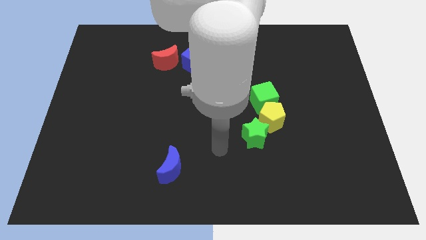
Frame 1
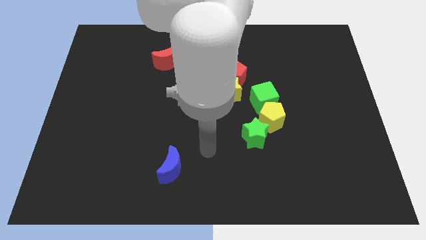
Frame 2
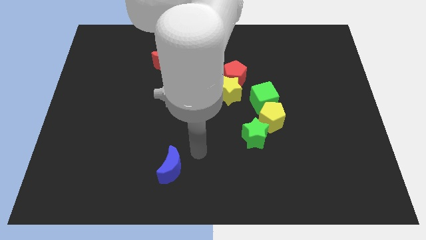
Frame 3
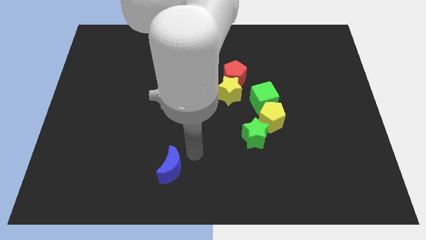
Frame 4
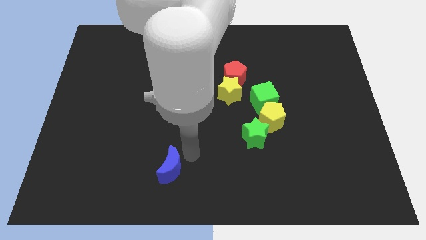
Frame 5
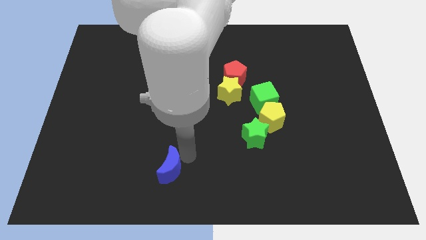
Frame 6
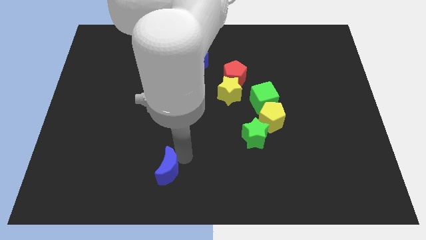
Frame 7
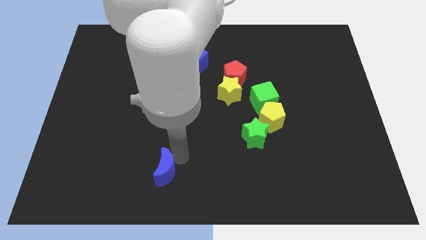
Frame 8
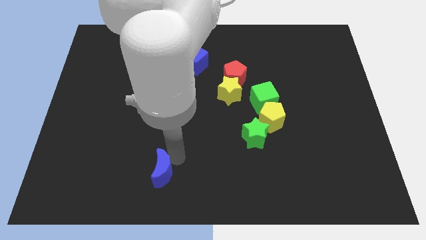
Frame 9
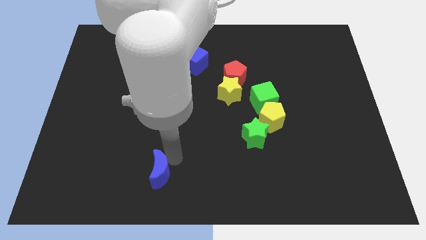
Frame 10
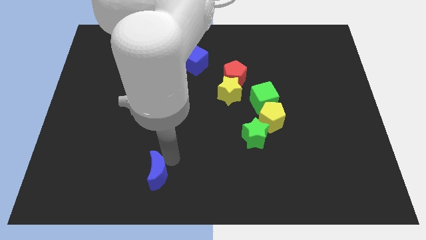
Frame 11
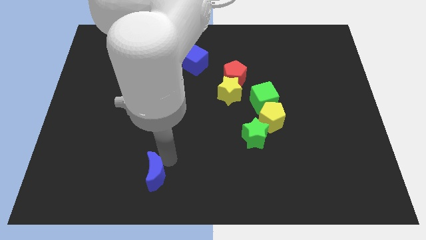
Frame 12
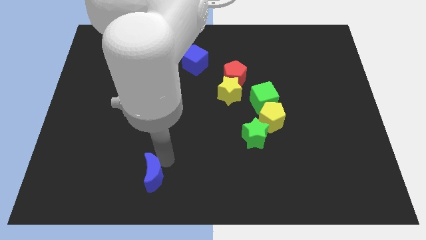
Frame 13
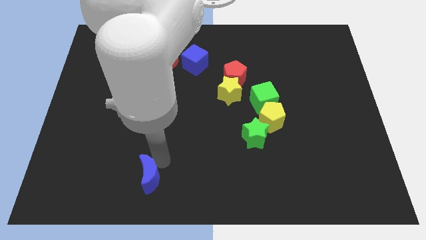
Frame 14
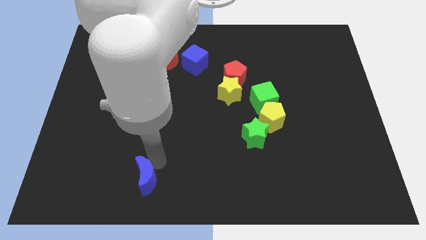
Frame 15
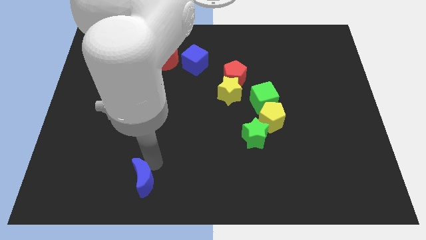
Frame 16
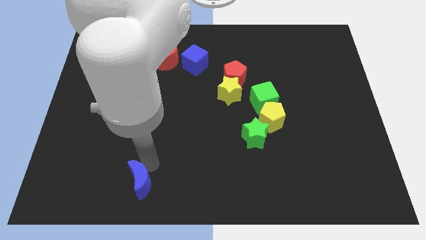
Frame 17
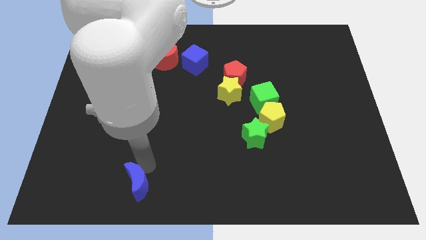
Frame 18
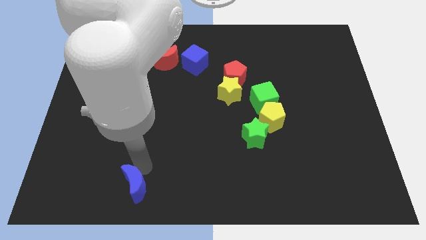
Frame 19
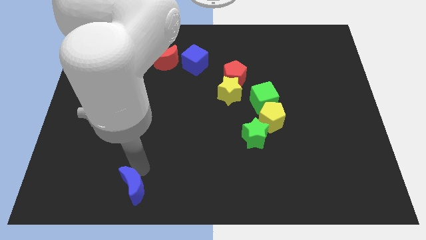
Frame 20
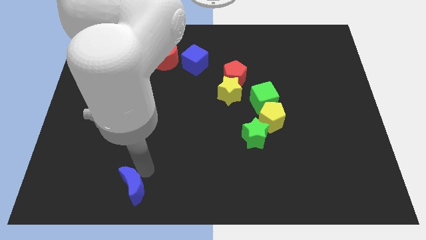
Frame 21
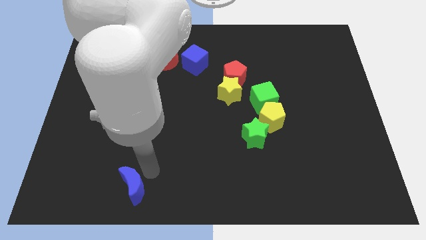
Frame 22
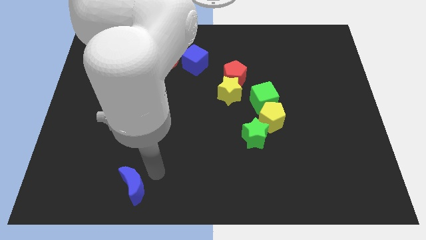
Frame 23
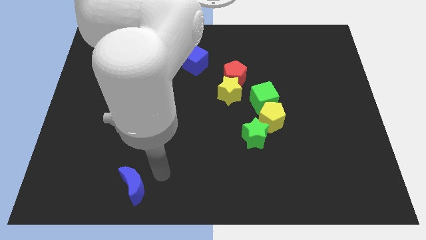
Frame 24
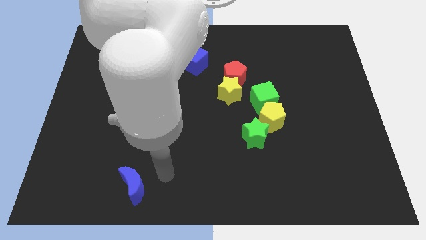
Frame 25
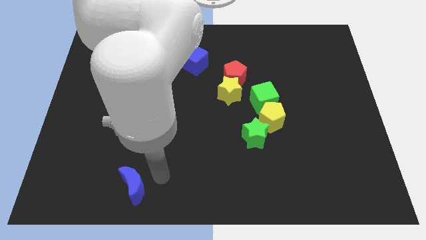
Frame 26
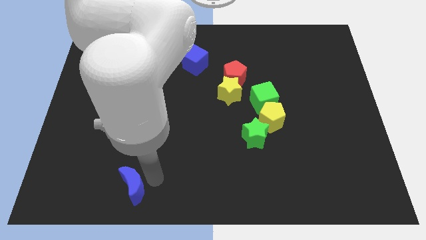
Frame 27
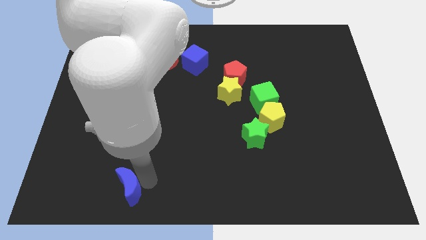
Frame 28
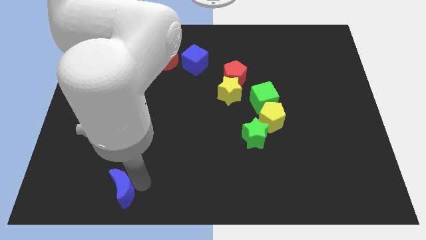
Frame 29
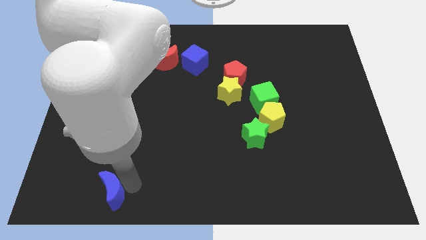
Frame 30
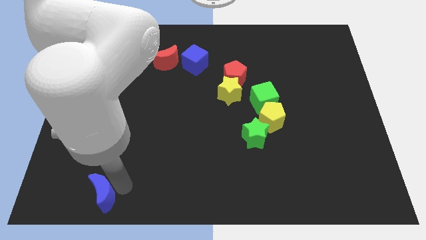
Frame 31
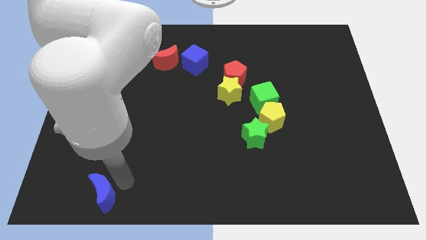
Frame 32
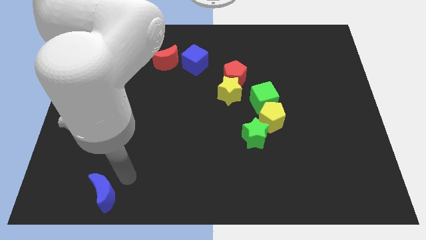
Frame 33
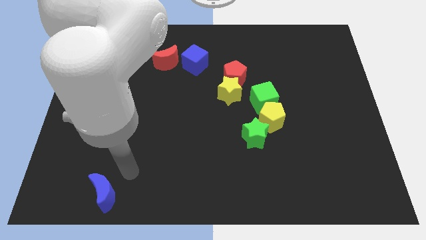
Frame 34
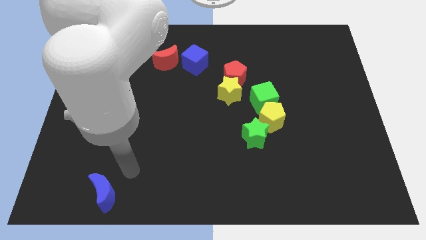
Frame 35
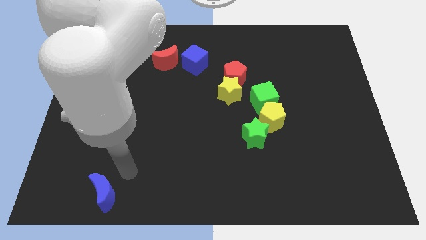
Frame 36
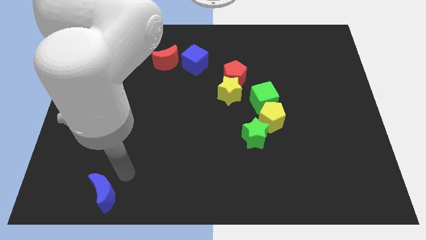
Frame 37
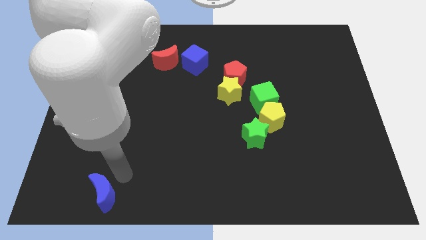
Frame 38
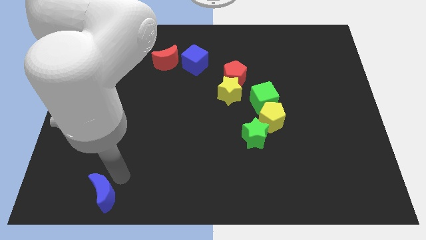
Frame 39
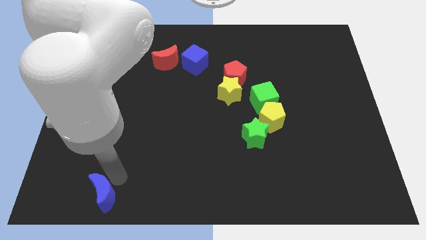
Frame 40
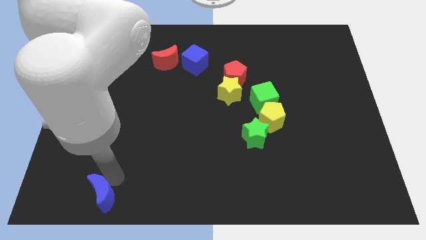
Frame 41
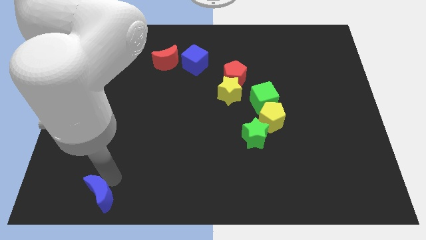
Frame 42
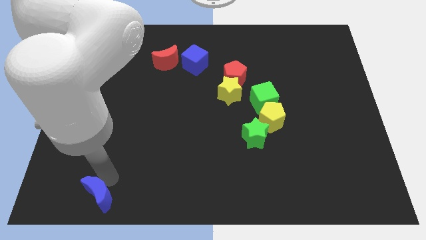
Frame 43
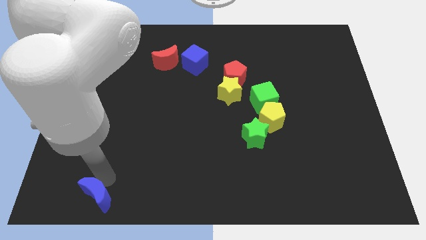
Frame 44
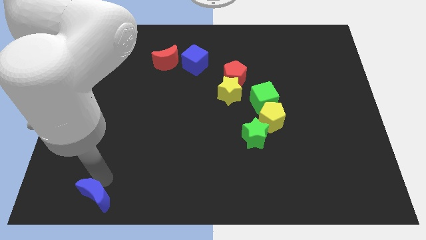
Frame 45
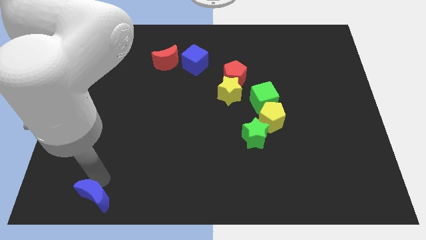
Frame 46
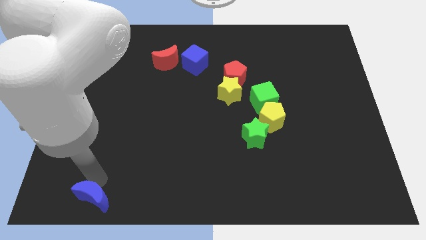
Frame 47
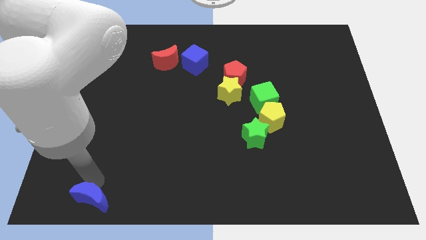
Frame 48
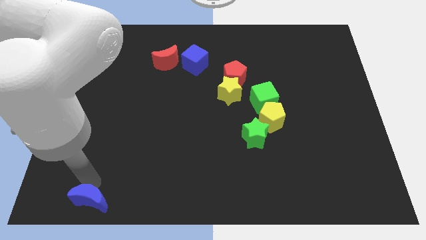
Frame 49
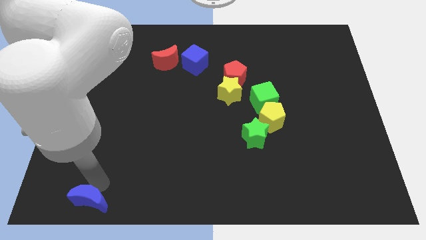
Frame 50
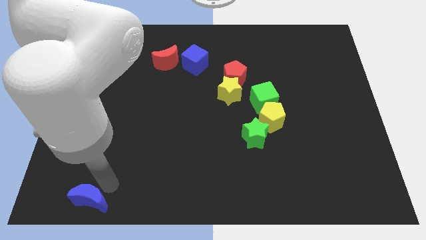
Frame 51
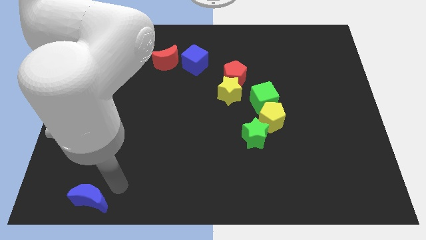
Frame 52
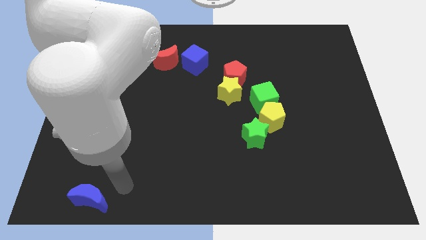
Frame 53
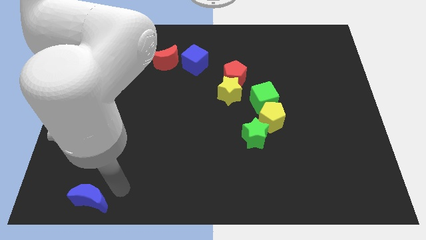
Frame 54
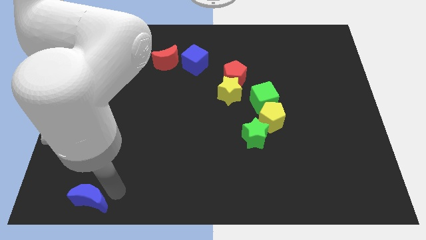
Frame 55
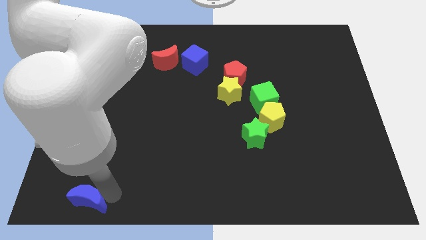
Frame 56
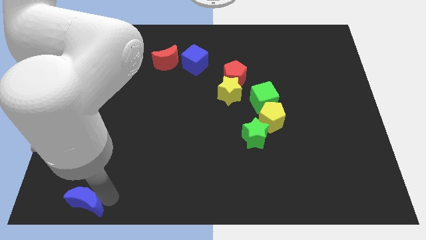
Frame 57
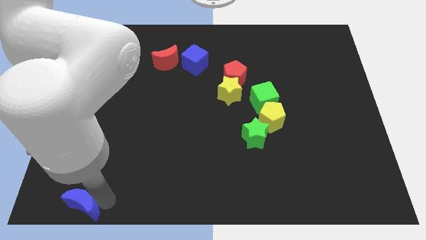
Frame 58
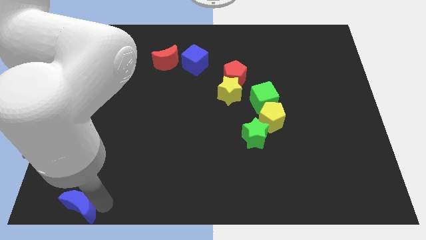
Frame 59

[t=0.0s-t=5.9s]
move the blue moon to the lower left corner
